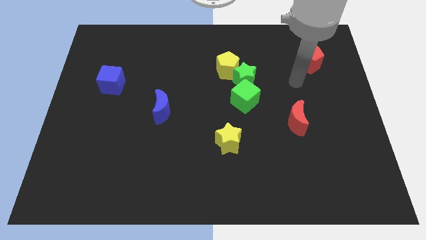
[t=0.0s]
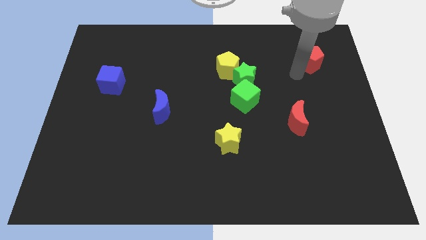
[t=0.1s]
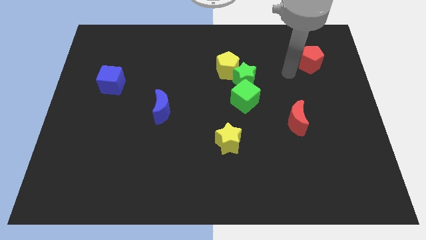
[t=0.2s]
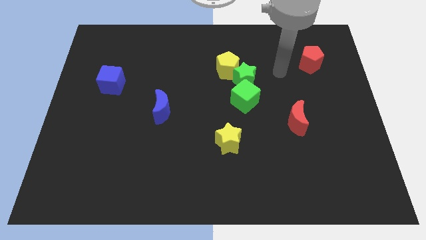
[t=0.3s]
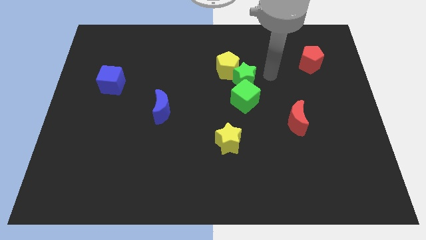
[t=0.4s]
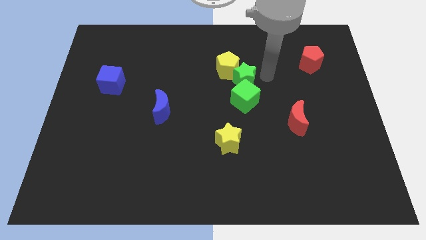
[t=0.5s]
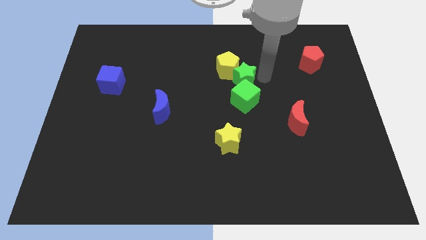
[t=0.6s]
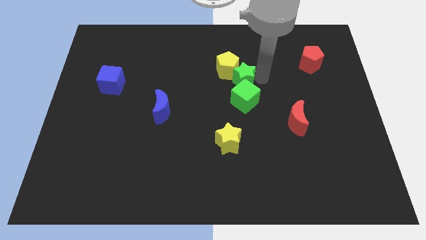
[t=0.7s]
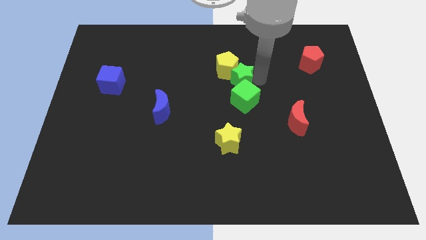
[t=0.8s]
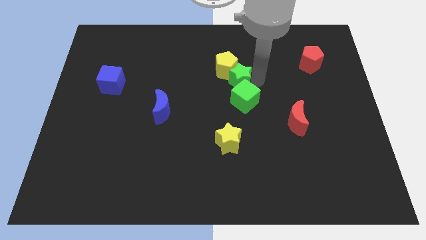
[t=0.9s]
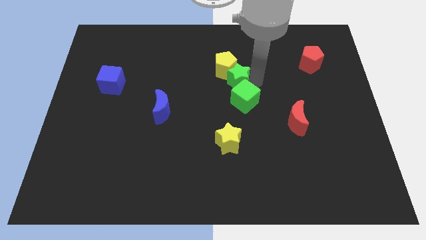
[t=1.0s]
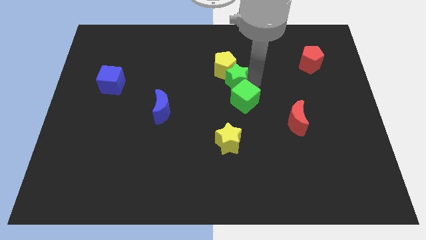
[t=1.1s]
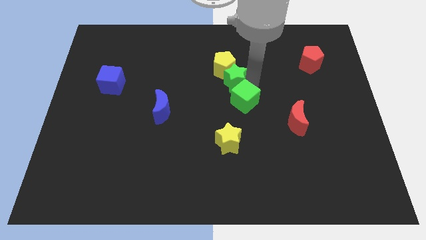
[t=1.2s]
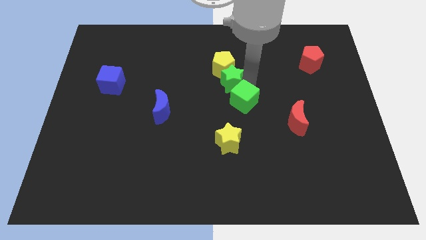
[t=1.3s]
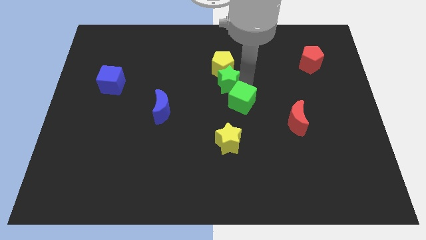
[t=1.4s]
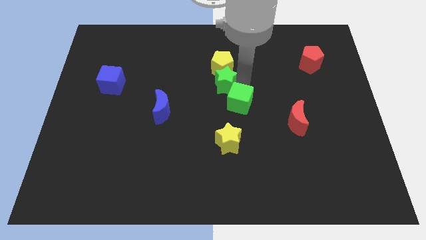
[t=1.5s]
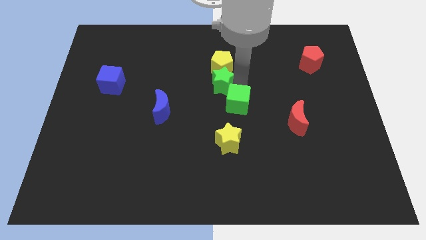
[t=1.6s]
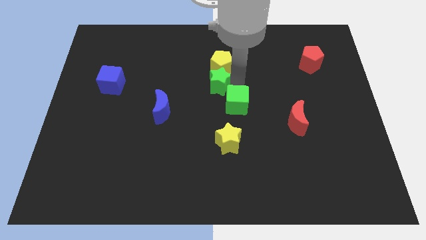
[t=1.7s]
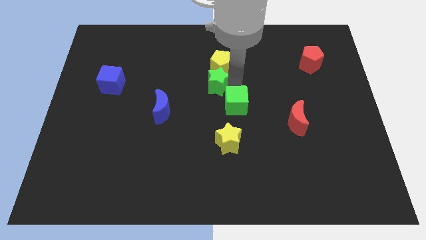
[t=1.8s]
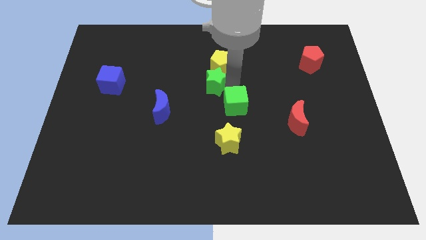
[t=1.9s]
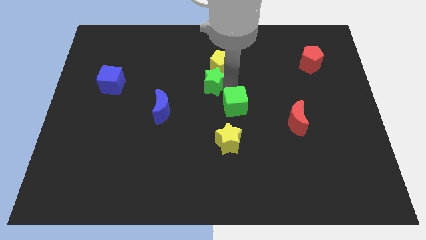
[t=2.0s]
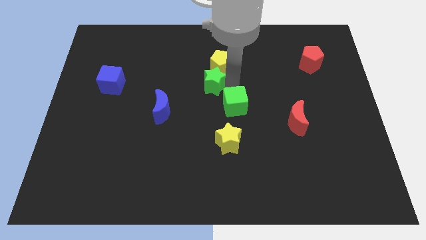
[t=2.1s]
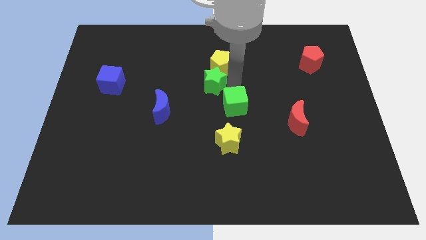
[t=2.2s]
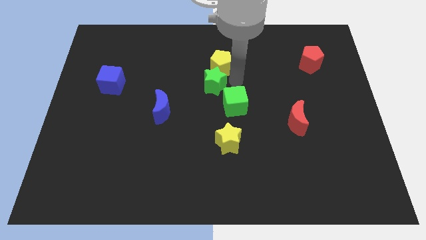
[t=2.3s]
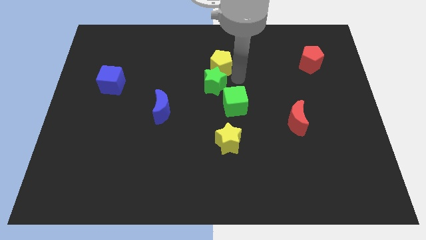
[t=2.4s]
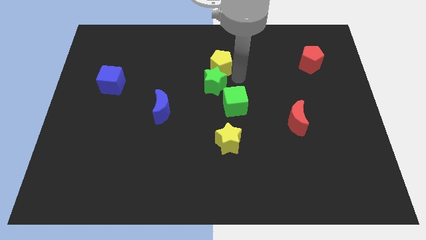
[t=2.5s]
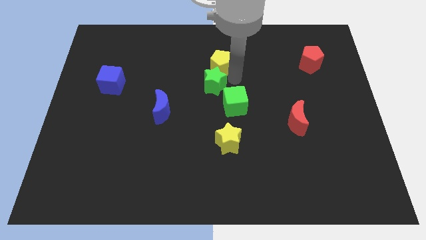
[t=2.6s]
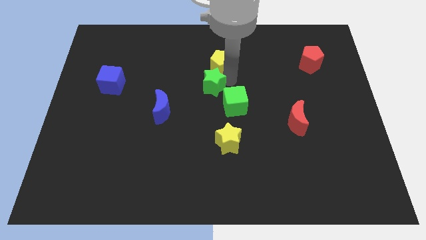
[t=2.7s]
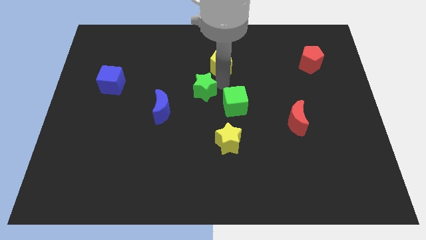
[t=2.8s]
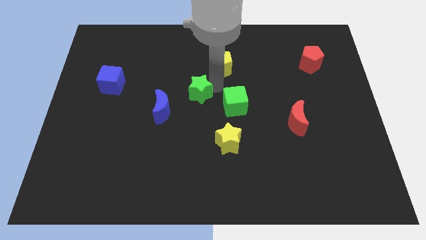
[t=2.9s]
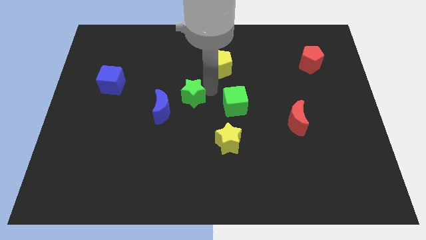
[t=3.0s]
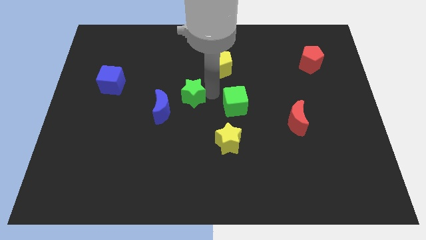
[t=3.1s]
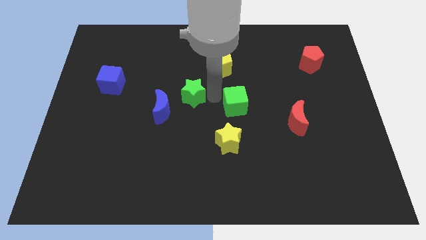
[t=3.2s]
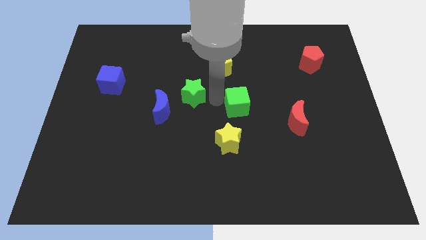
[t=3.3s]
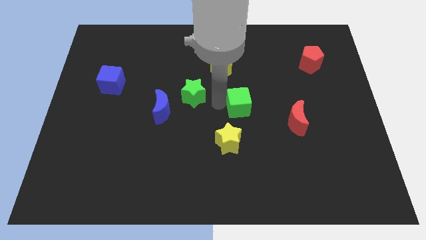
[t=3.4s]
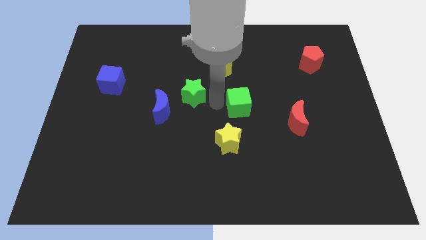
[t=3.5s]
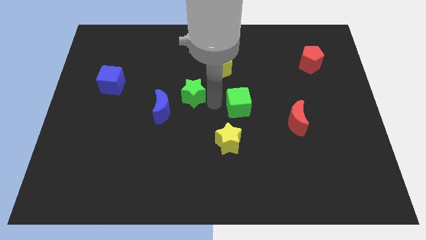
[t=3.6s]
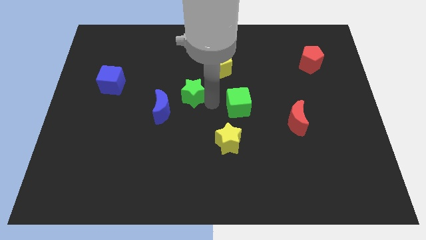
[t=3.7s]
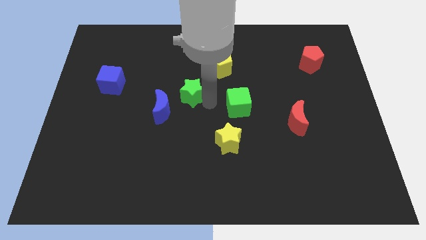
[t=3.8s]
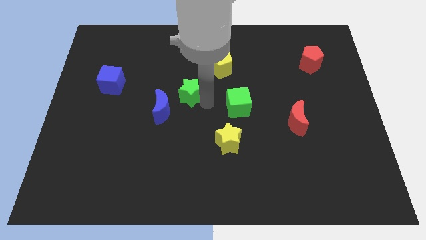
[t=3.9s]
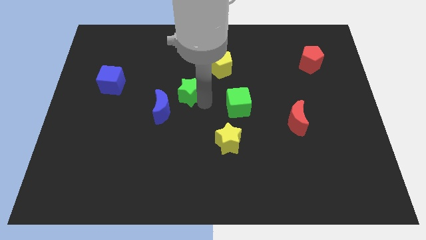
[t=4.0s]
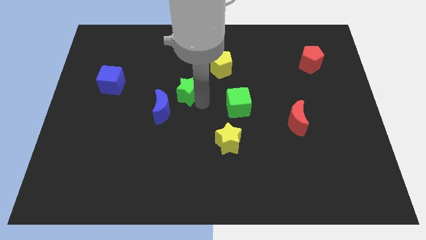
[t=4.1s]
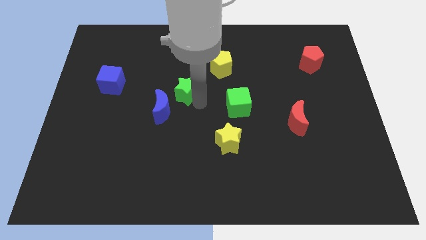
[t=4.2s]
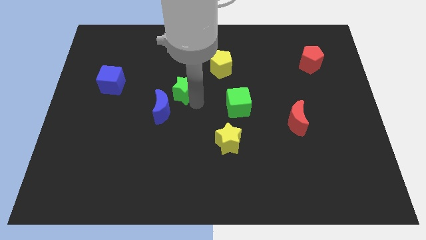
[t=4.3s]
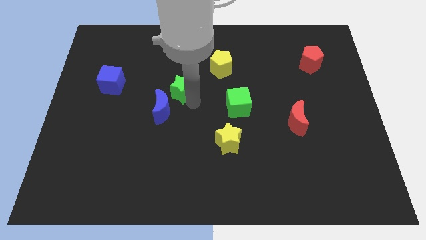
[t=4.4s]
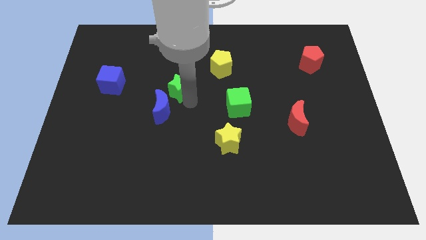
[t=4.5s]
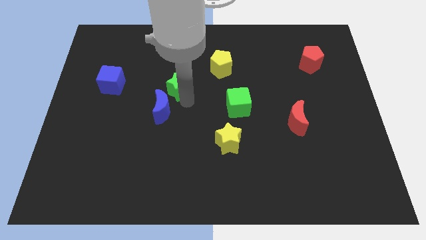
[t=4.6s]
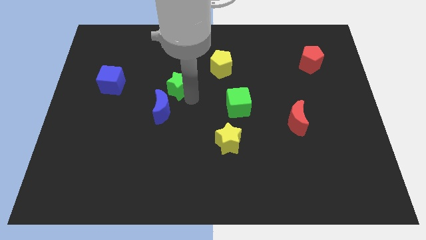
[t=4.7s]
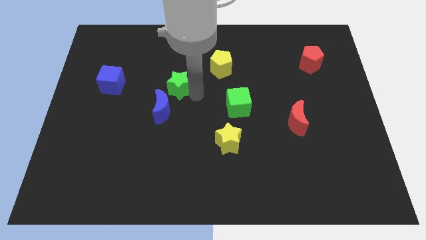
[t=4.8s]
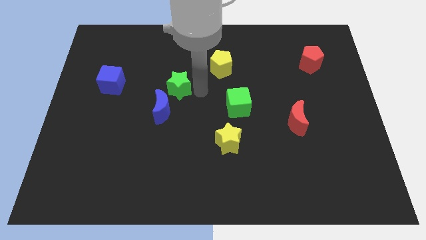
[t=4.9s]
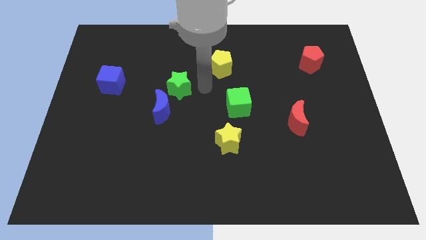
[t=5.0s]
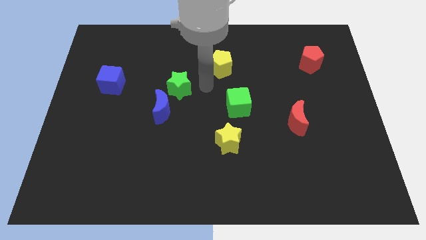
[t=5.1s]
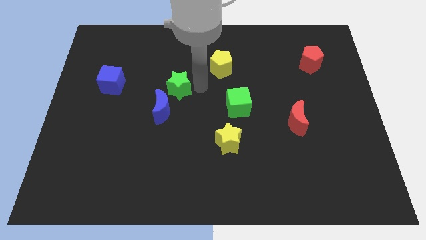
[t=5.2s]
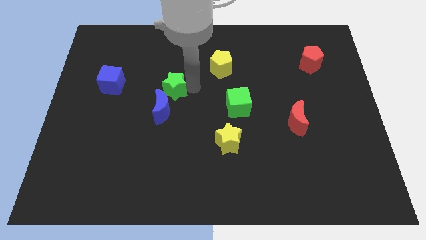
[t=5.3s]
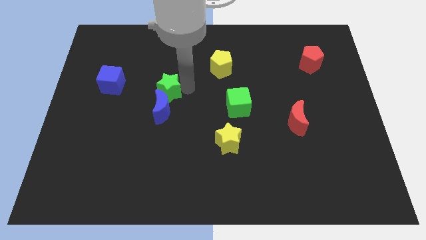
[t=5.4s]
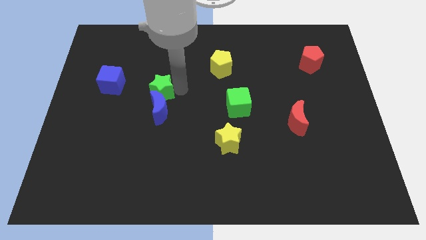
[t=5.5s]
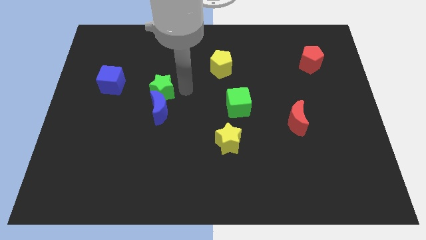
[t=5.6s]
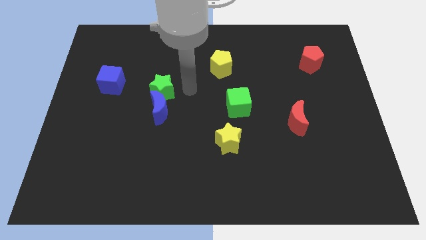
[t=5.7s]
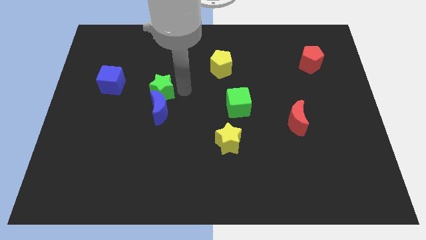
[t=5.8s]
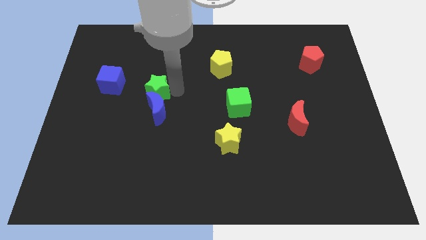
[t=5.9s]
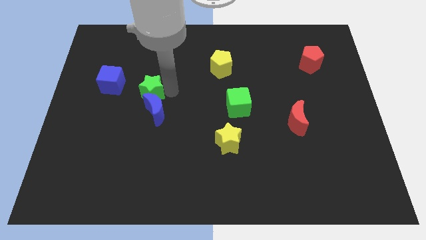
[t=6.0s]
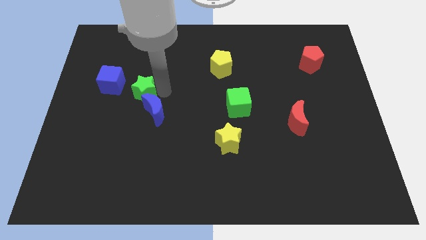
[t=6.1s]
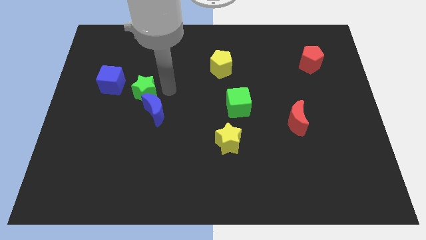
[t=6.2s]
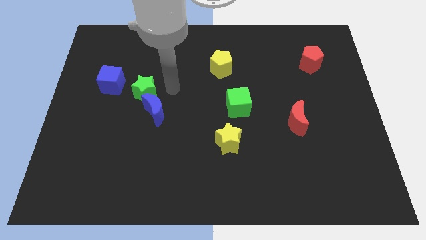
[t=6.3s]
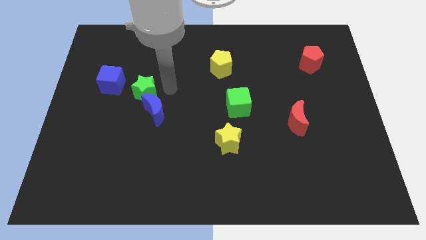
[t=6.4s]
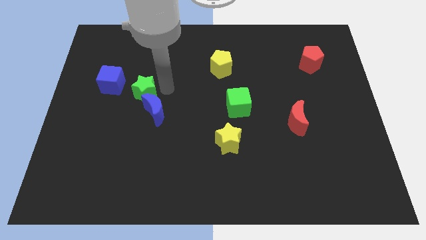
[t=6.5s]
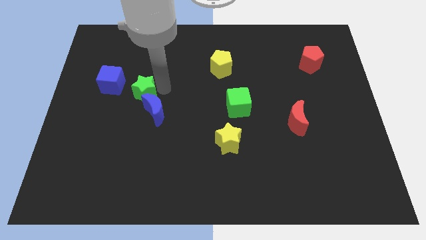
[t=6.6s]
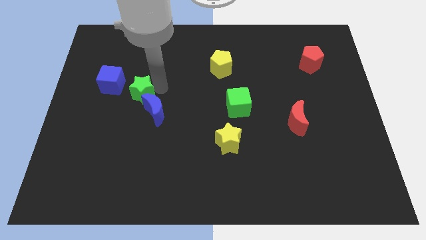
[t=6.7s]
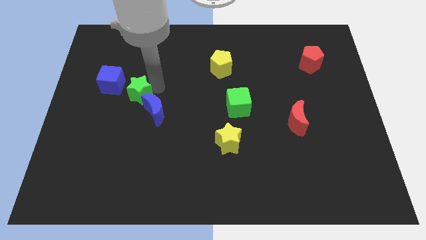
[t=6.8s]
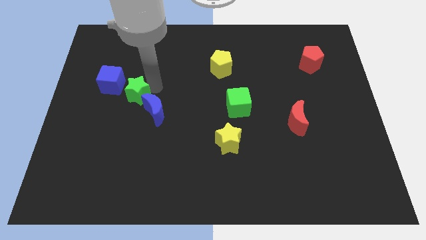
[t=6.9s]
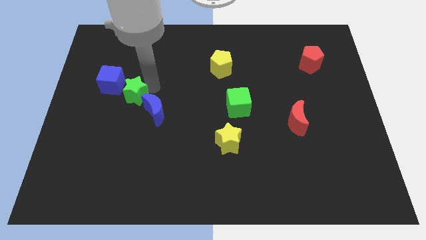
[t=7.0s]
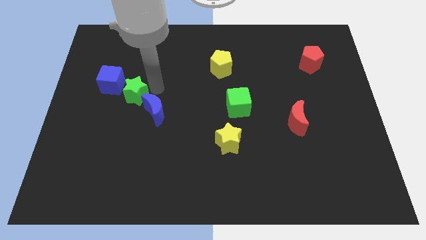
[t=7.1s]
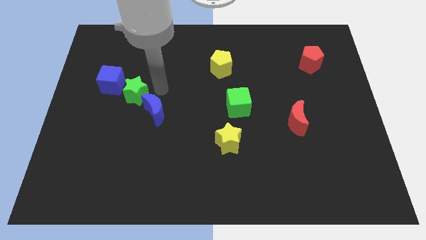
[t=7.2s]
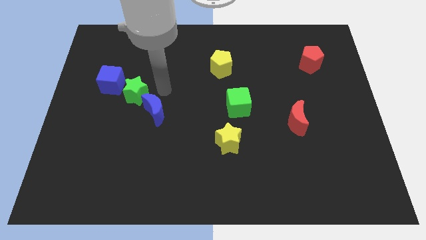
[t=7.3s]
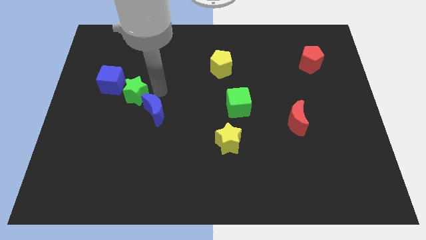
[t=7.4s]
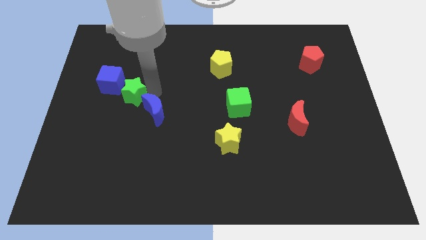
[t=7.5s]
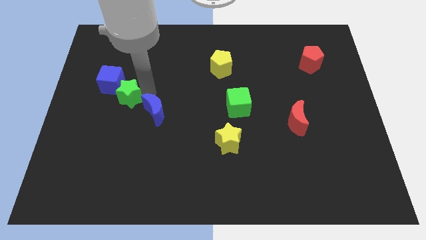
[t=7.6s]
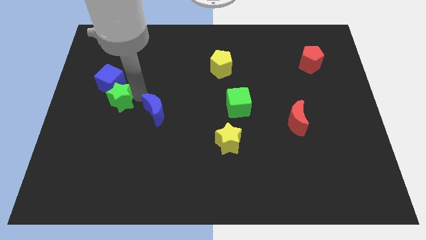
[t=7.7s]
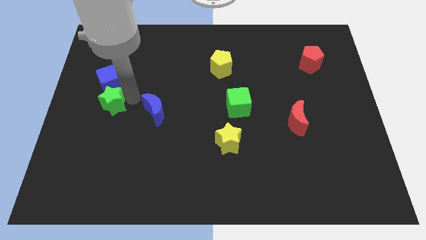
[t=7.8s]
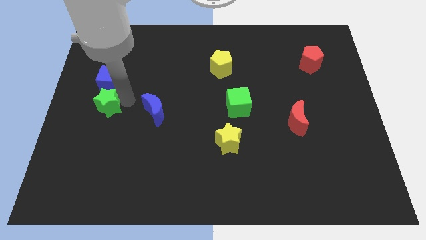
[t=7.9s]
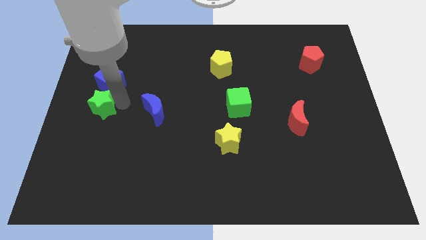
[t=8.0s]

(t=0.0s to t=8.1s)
push the green star to the center left
